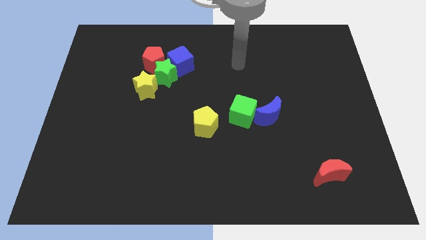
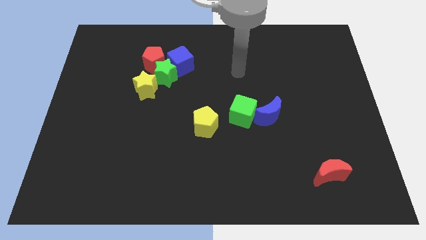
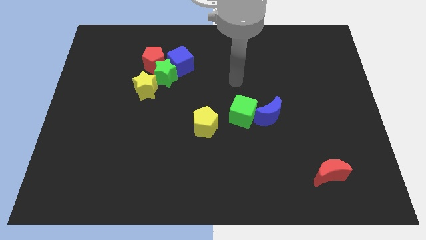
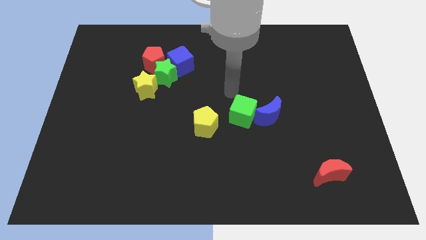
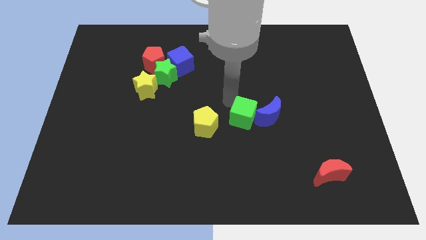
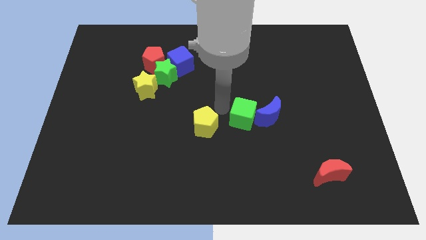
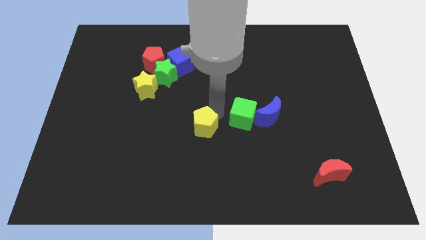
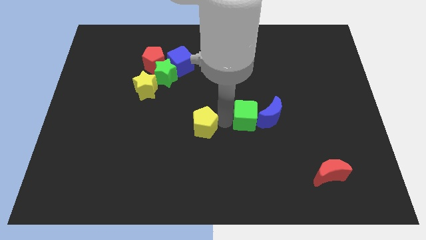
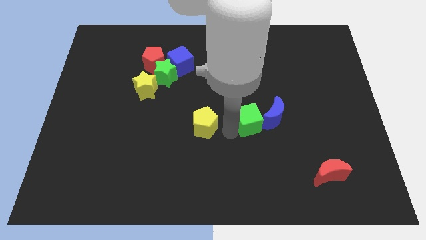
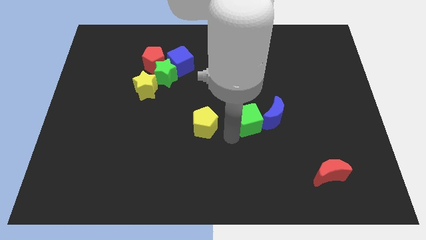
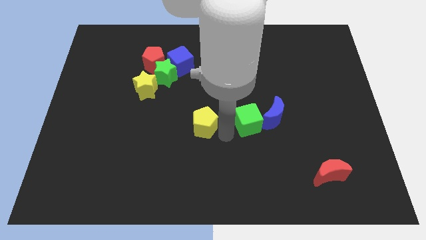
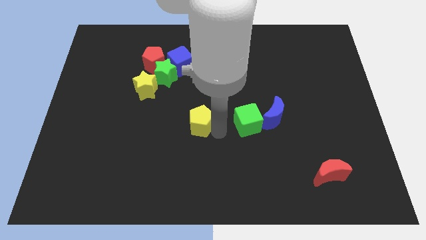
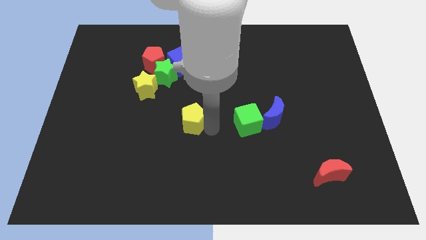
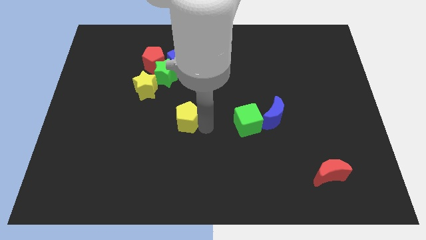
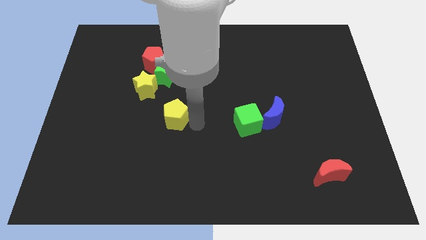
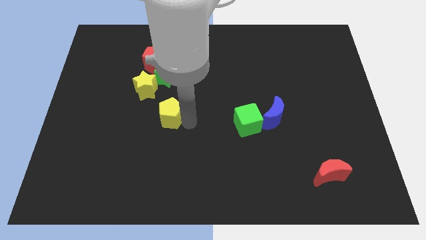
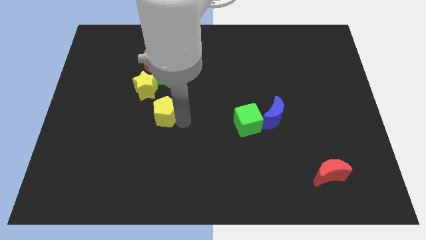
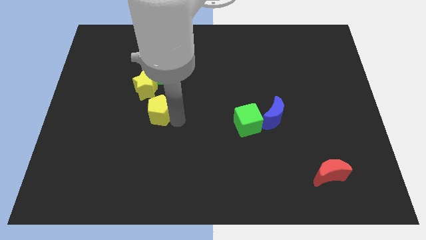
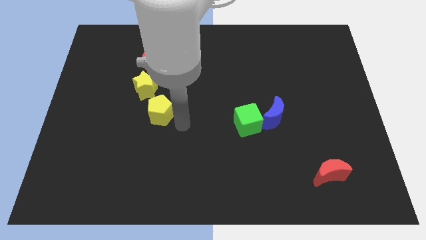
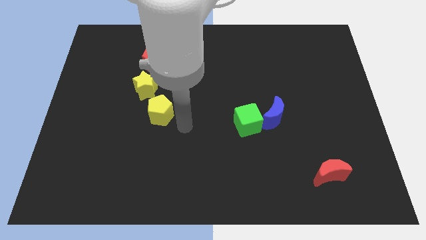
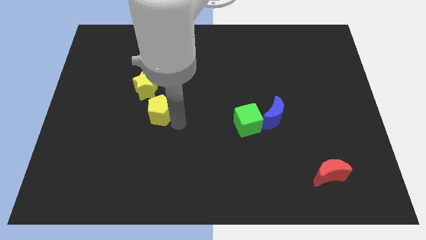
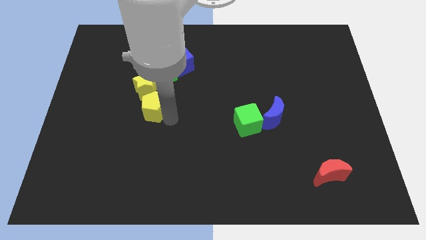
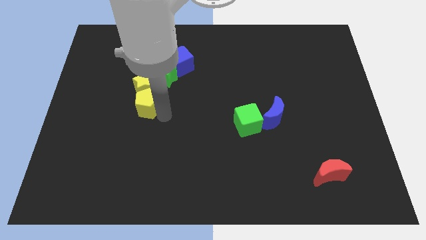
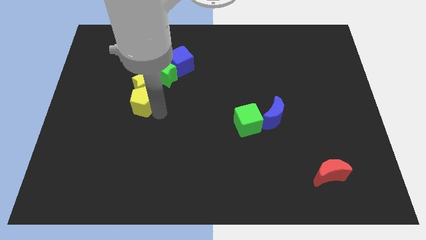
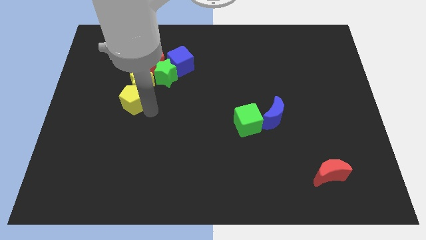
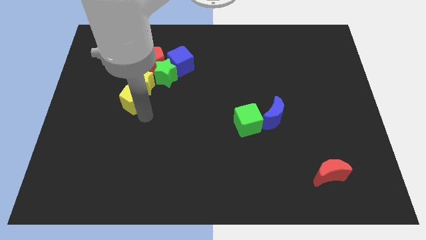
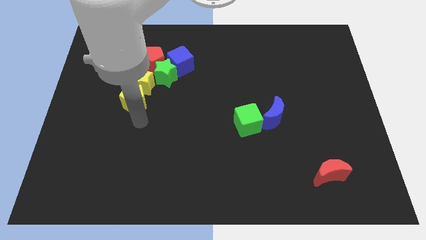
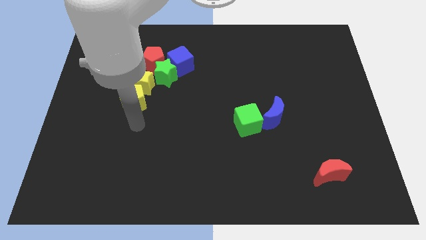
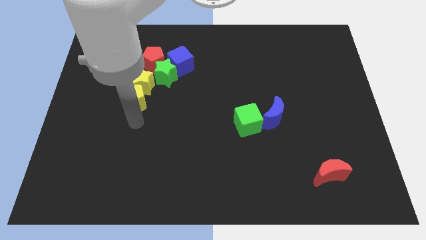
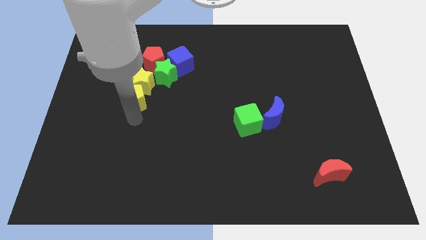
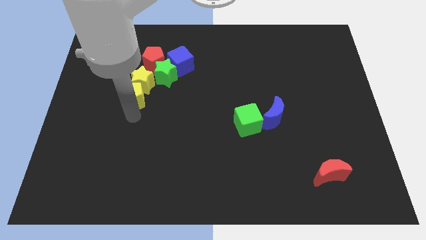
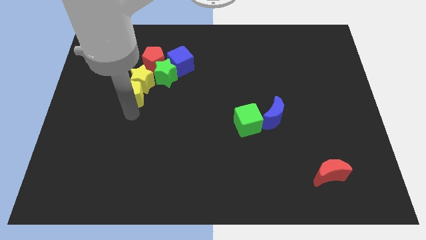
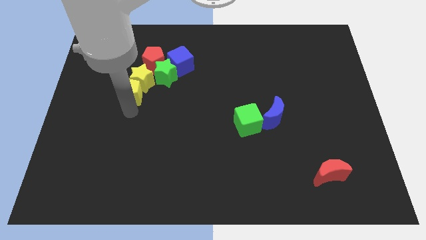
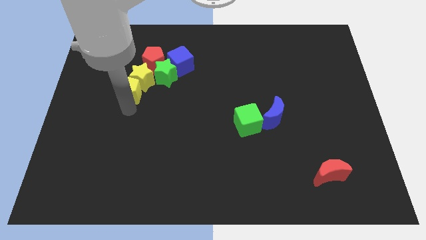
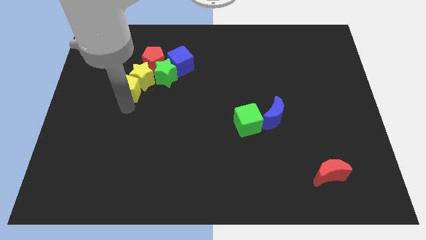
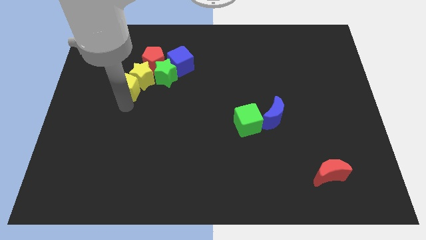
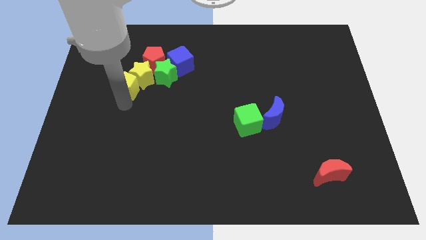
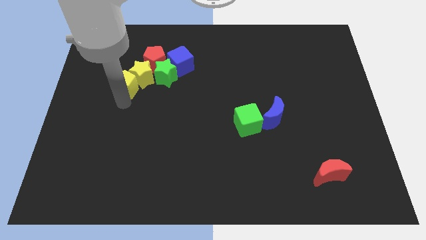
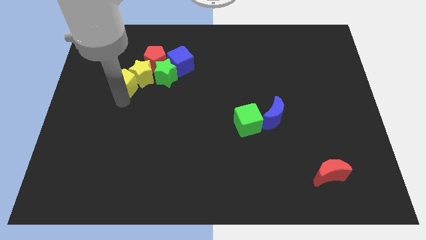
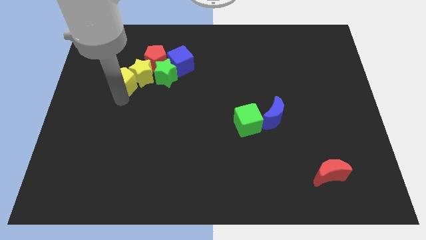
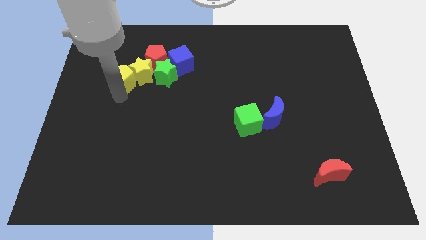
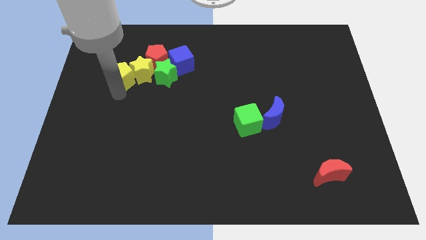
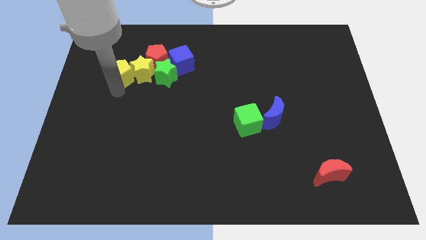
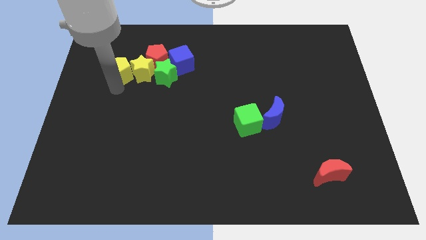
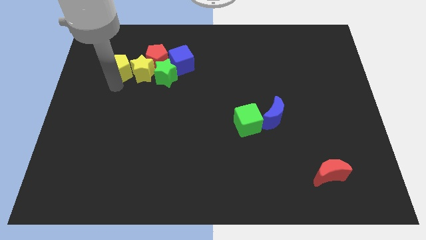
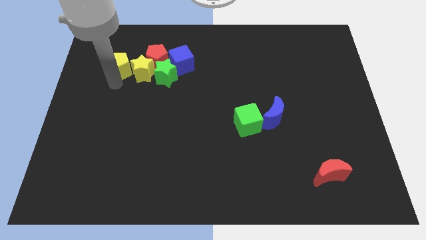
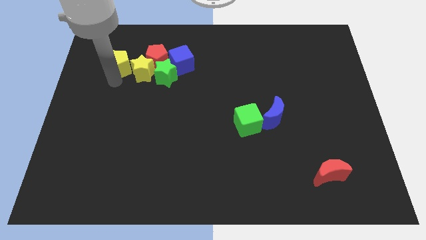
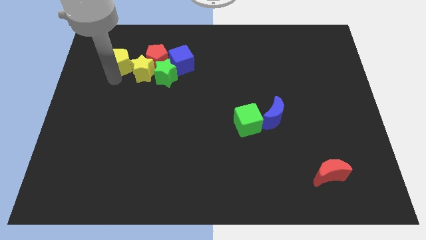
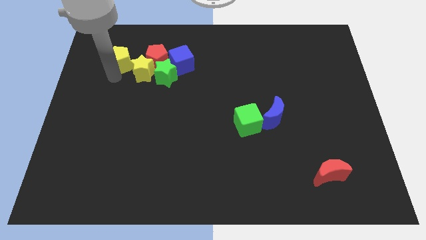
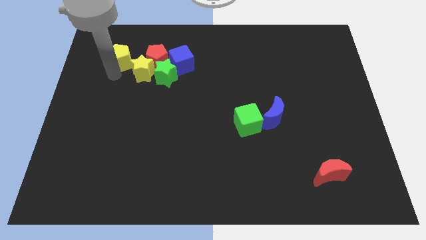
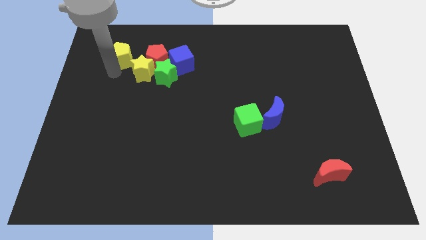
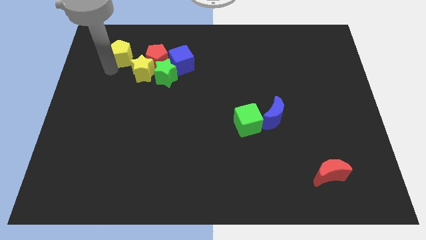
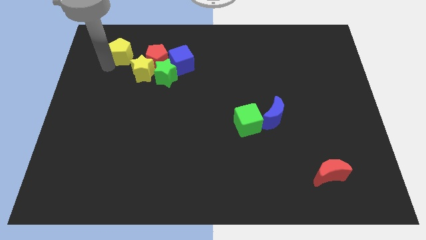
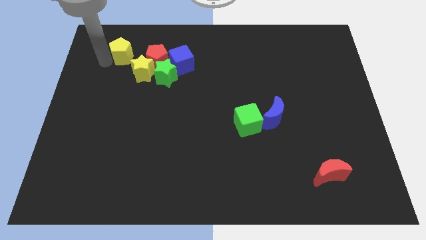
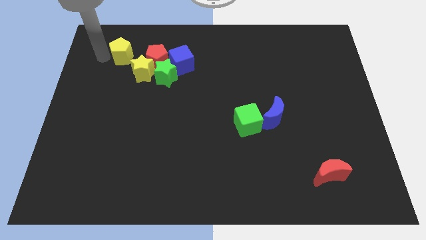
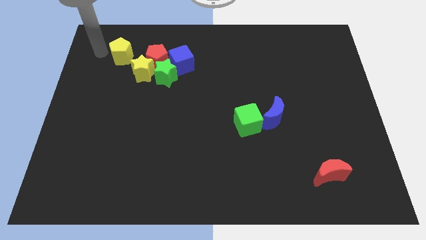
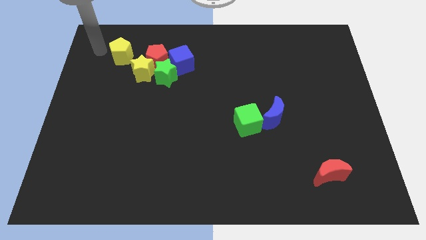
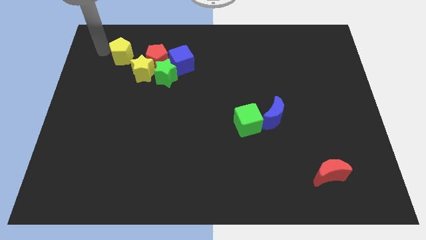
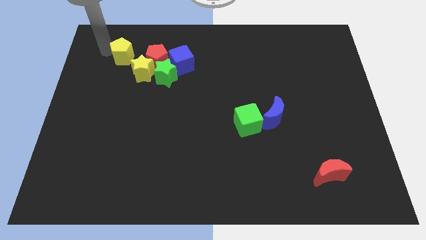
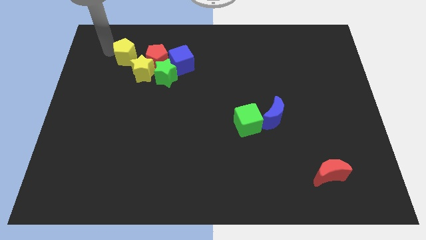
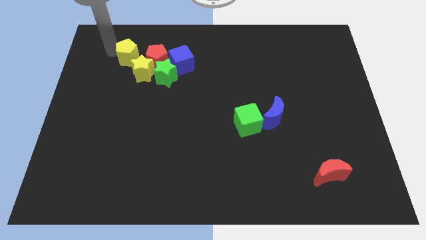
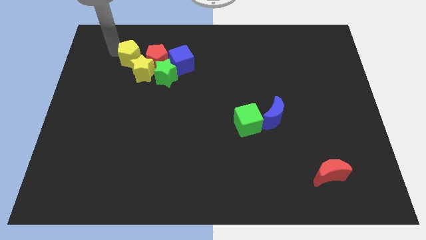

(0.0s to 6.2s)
put the yellow pentagon to the top left side of the green star

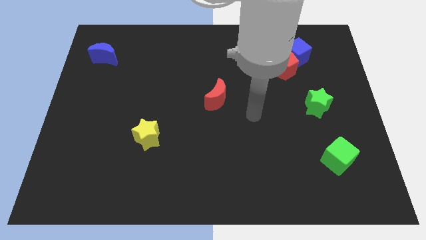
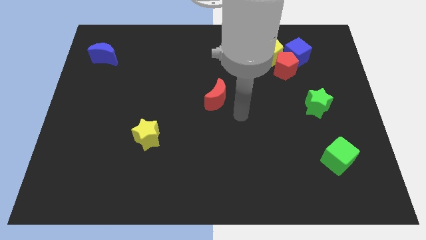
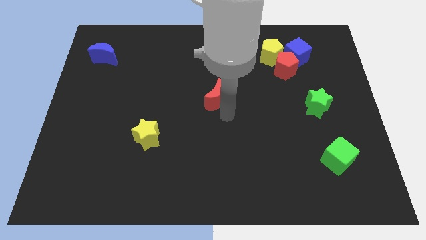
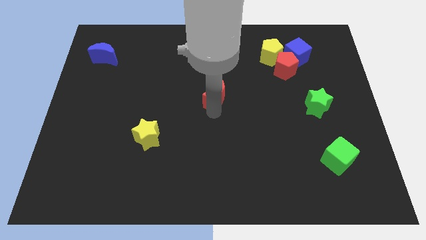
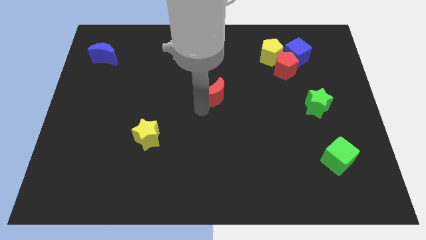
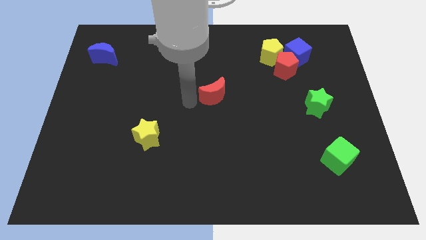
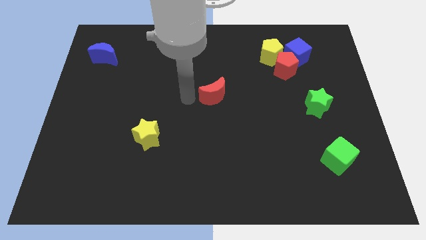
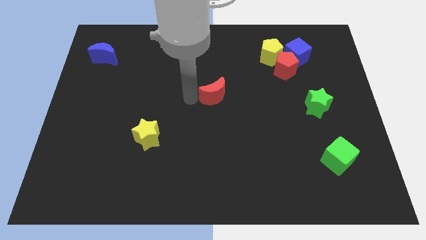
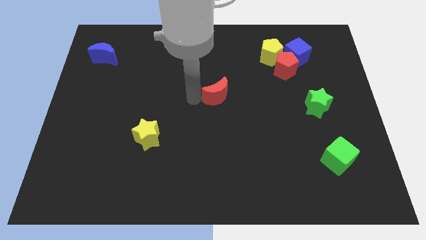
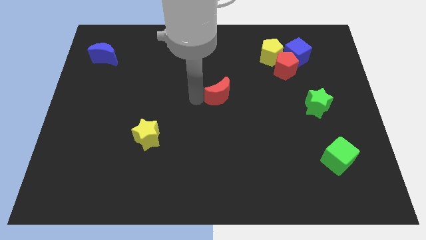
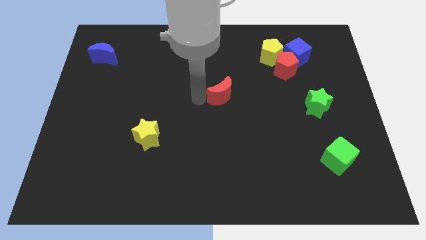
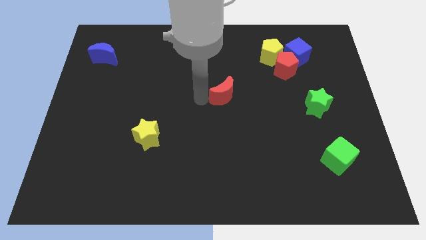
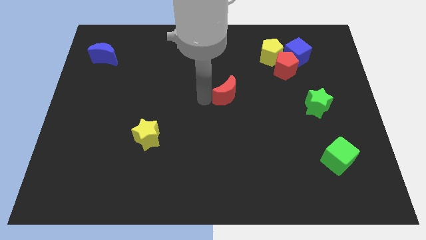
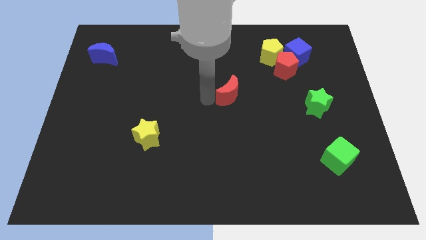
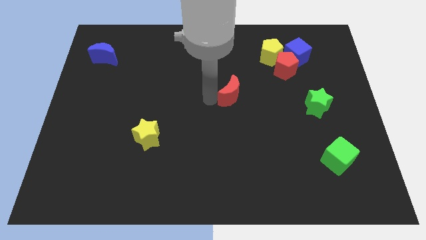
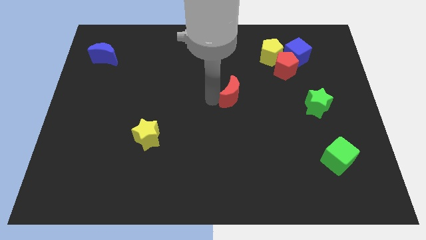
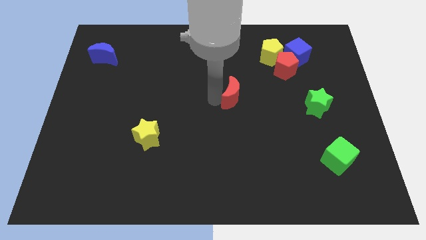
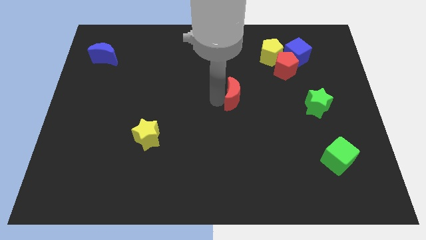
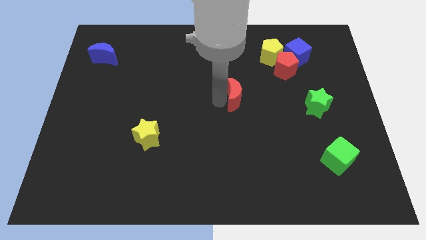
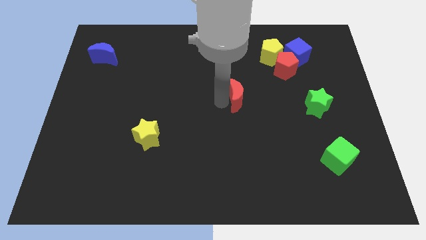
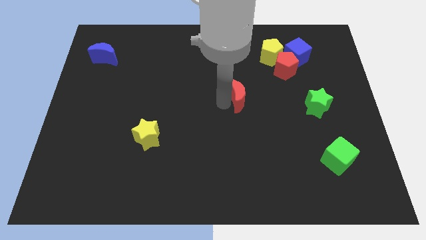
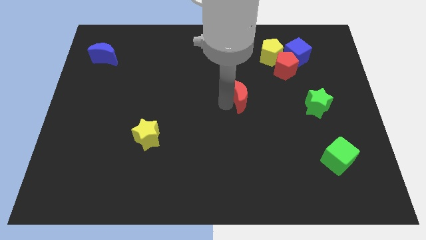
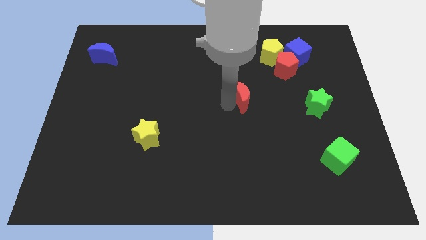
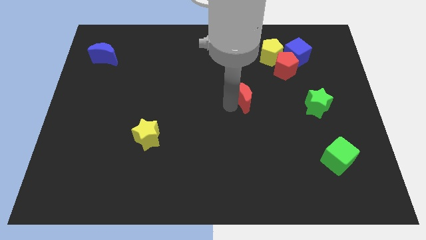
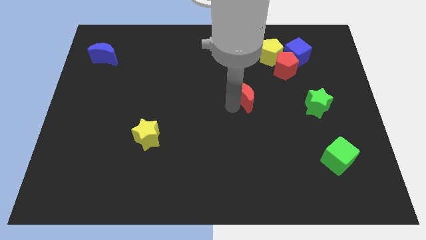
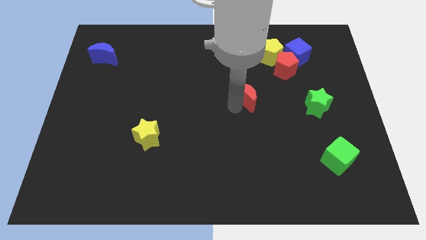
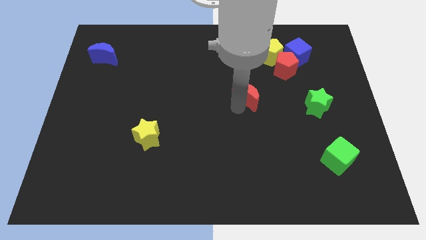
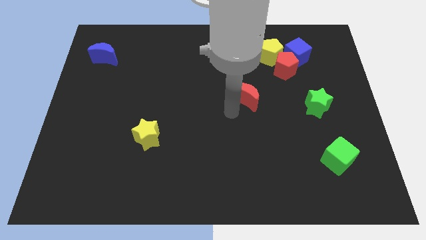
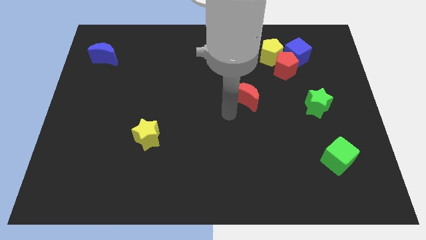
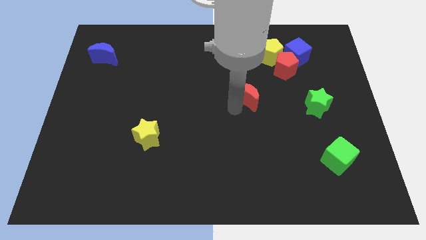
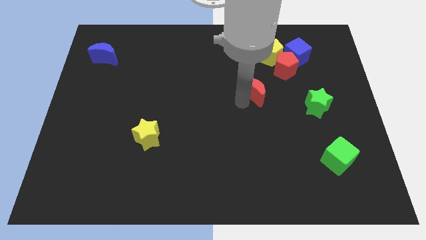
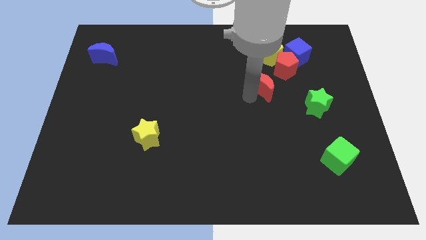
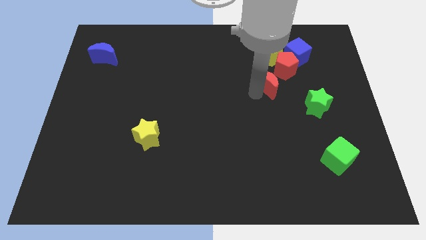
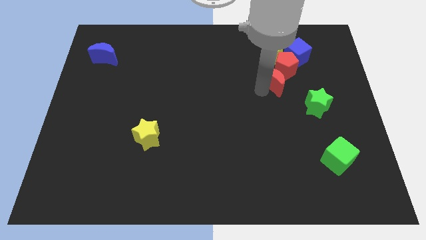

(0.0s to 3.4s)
move the red moon to the bottom left of the blue cube
